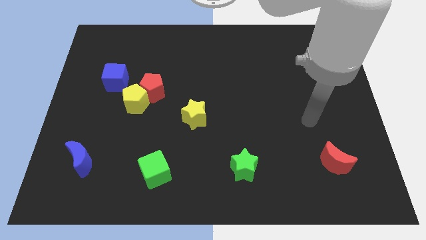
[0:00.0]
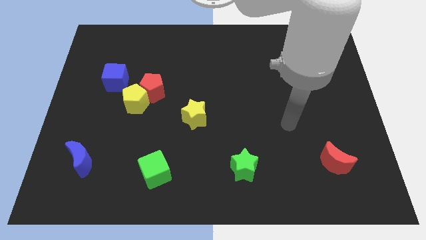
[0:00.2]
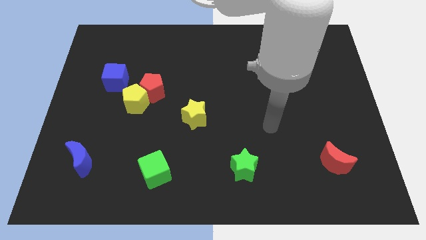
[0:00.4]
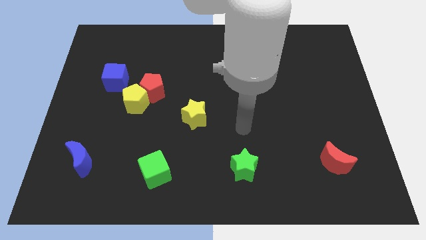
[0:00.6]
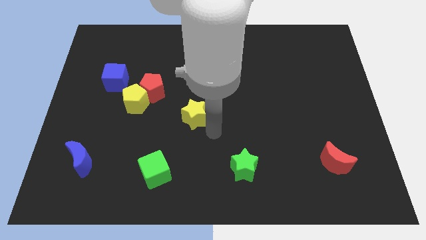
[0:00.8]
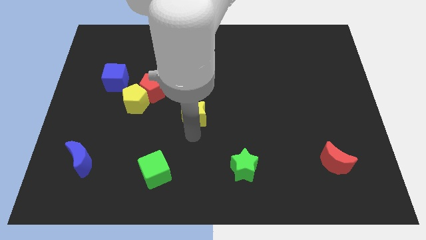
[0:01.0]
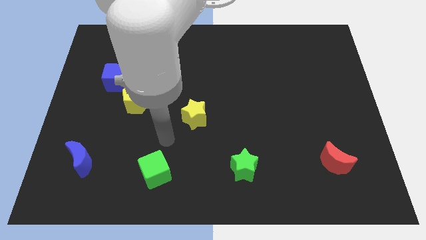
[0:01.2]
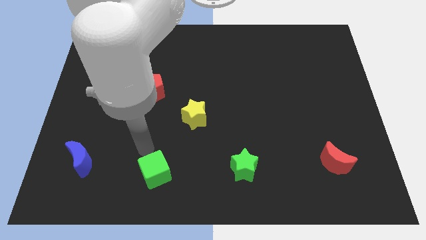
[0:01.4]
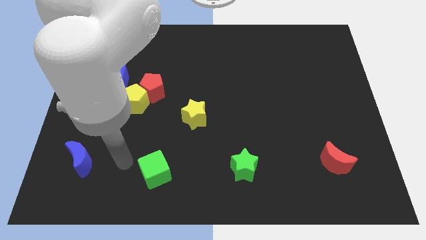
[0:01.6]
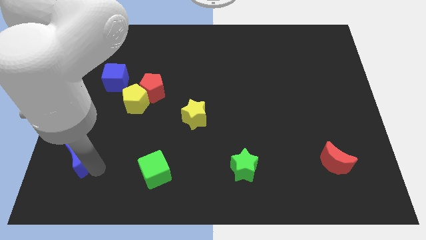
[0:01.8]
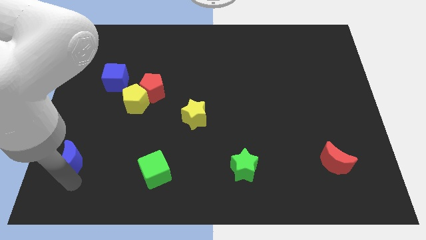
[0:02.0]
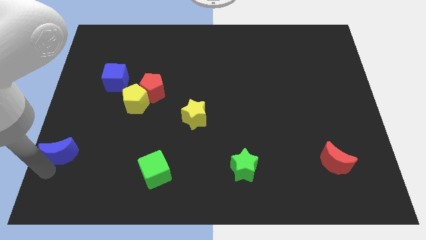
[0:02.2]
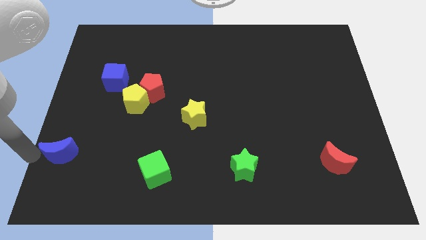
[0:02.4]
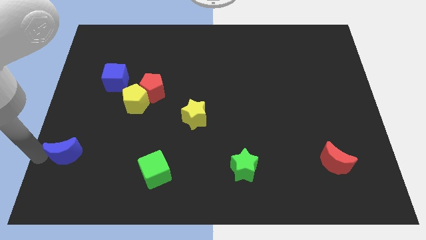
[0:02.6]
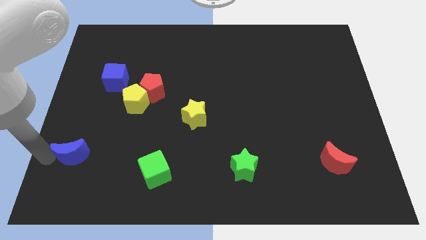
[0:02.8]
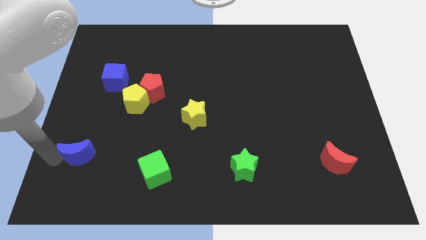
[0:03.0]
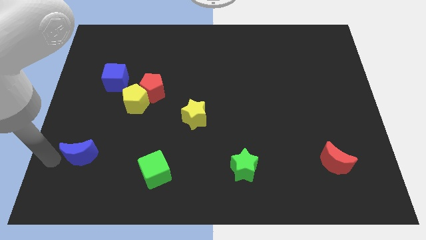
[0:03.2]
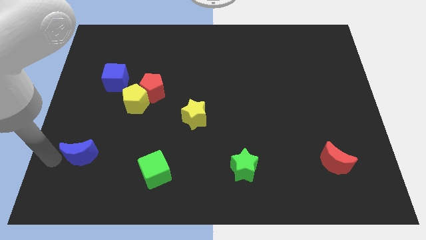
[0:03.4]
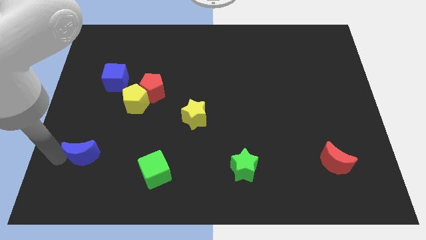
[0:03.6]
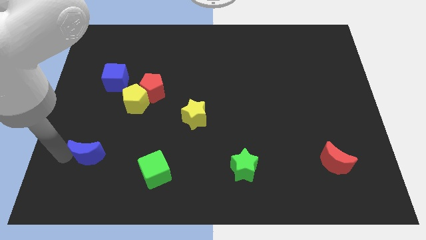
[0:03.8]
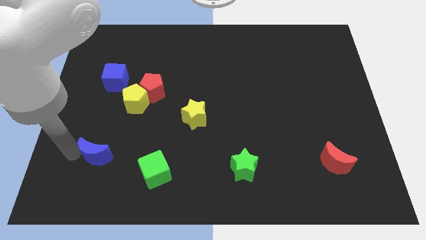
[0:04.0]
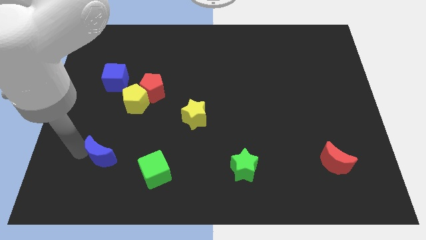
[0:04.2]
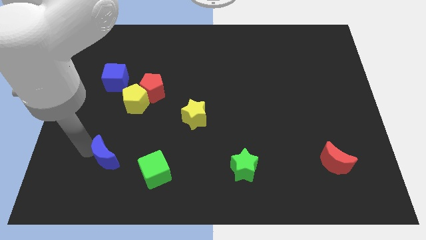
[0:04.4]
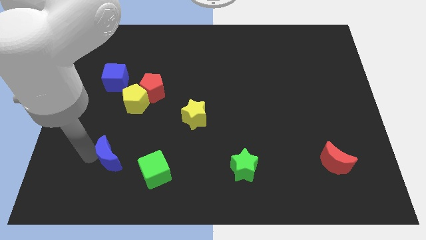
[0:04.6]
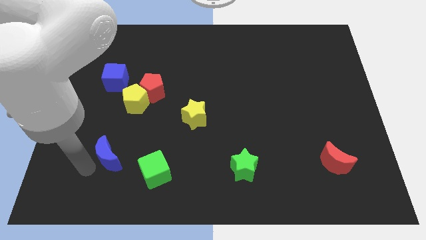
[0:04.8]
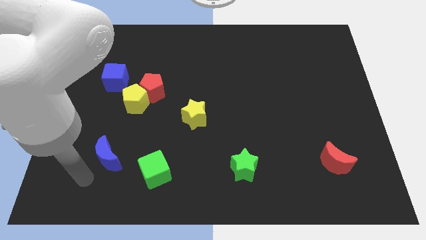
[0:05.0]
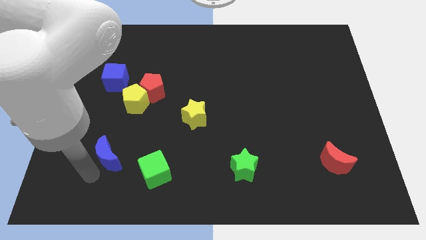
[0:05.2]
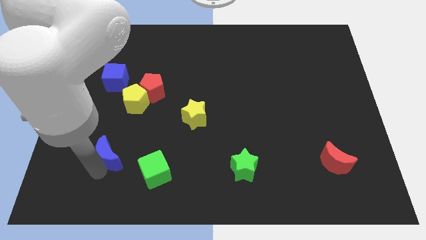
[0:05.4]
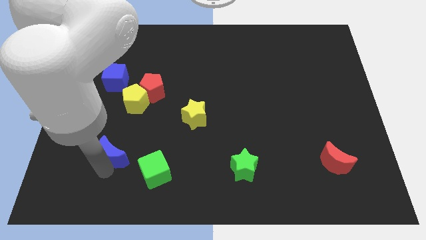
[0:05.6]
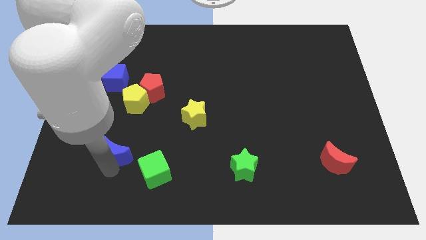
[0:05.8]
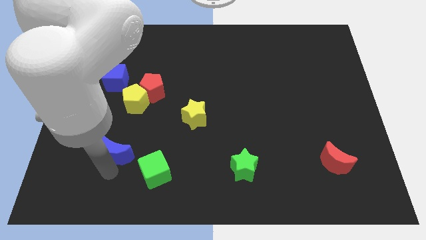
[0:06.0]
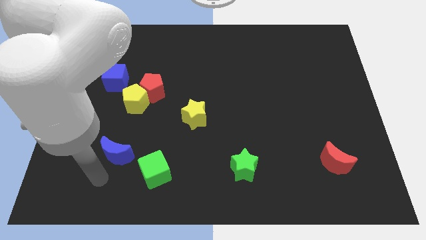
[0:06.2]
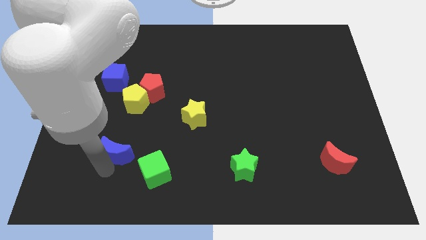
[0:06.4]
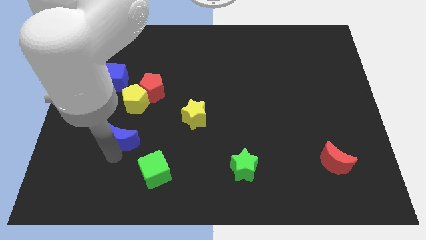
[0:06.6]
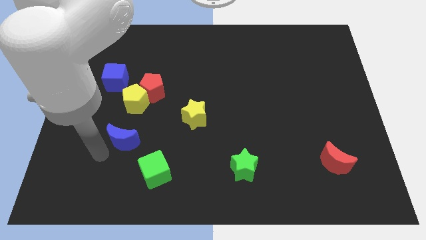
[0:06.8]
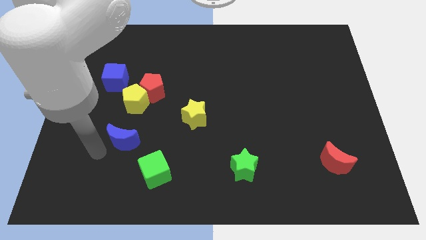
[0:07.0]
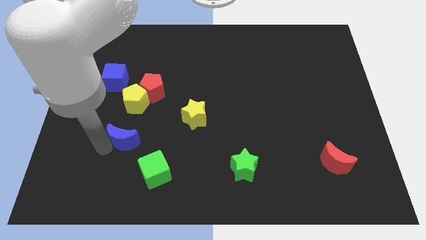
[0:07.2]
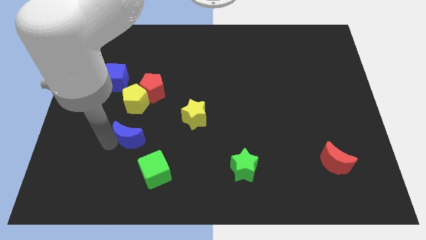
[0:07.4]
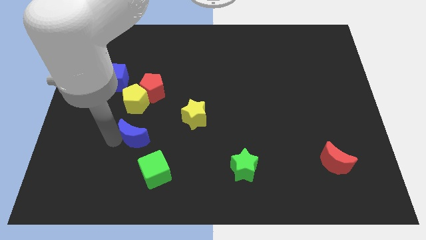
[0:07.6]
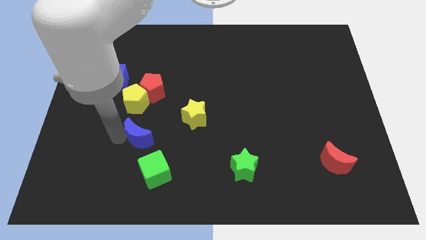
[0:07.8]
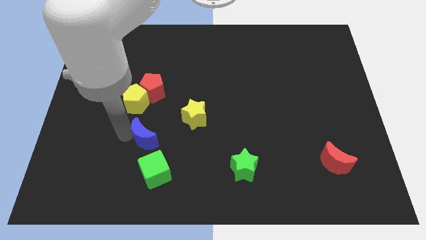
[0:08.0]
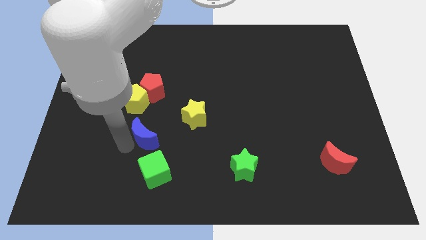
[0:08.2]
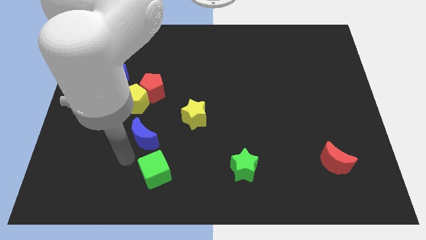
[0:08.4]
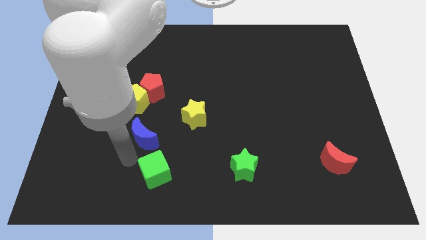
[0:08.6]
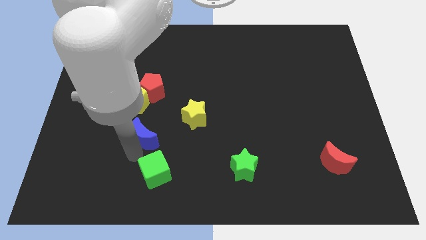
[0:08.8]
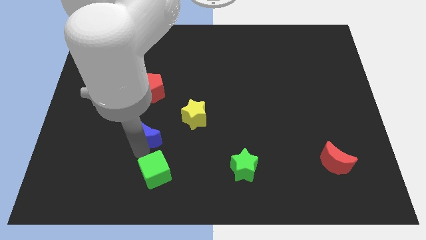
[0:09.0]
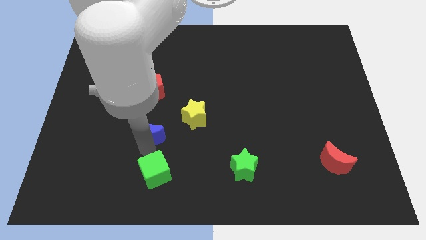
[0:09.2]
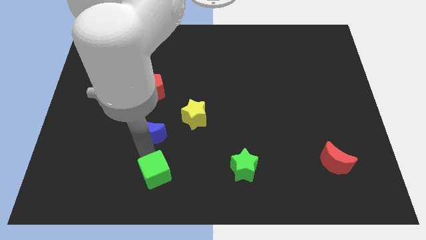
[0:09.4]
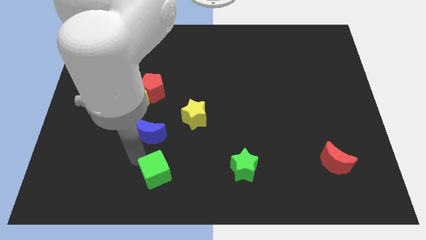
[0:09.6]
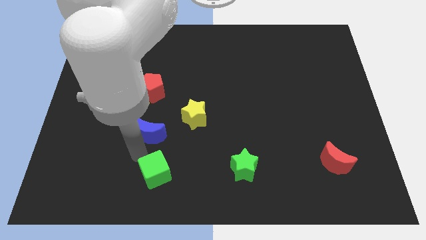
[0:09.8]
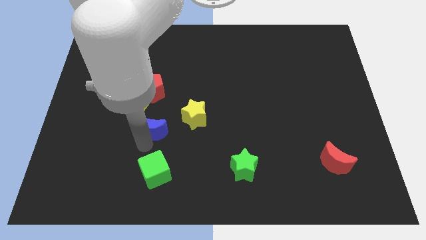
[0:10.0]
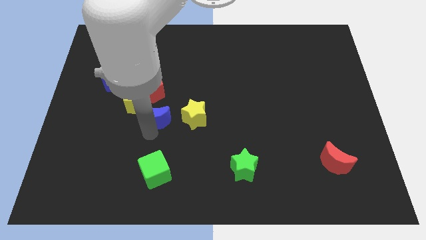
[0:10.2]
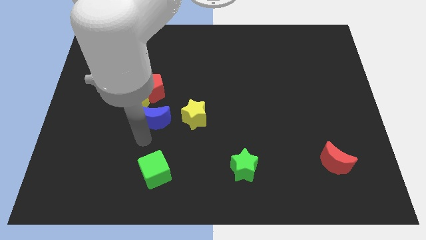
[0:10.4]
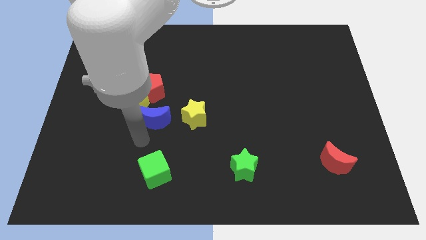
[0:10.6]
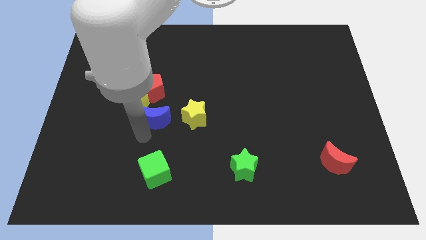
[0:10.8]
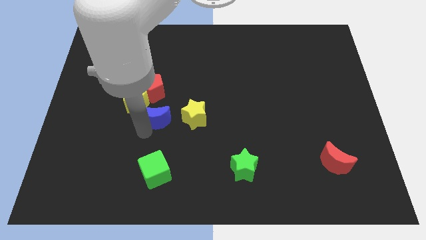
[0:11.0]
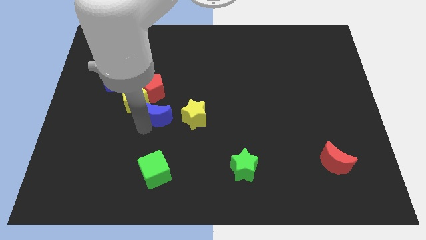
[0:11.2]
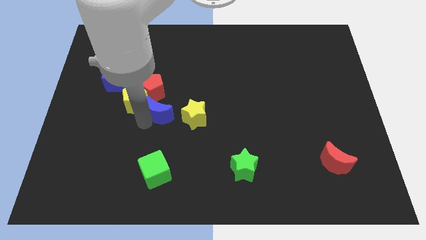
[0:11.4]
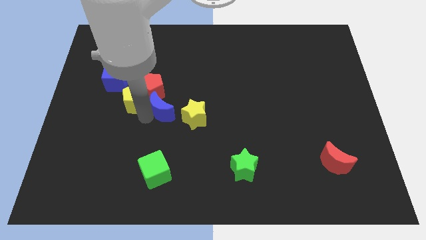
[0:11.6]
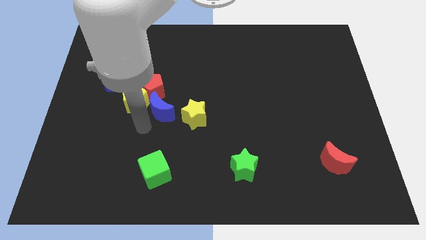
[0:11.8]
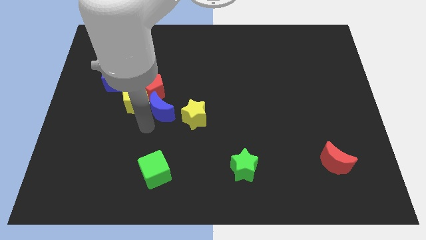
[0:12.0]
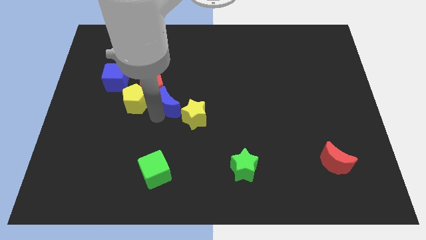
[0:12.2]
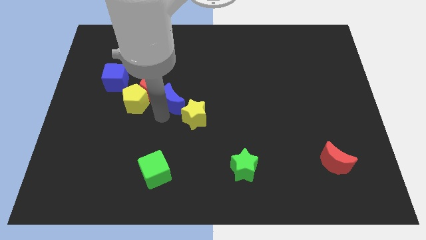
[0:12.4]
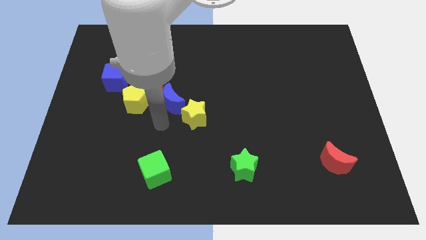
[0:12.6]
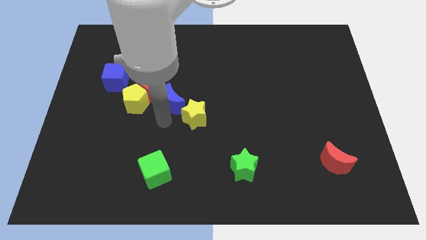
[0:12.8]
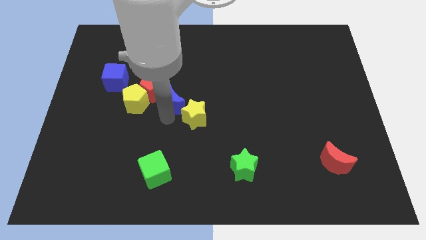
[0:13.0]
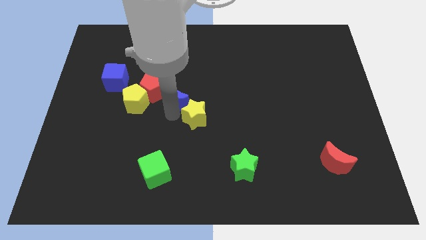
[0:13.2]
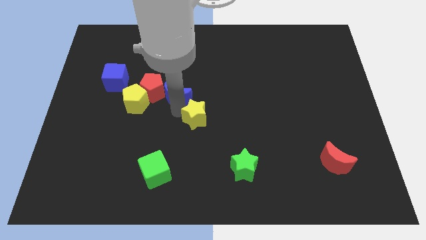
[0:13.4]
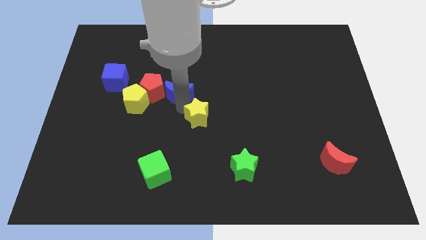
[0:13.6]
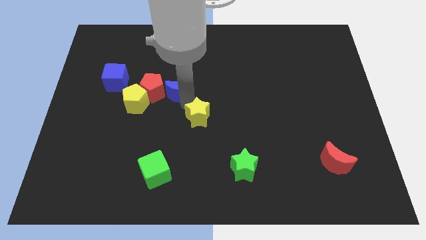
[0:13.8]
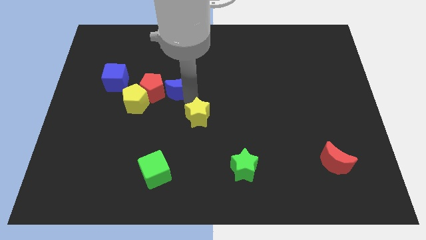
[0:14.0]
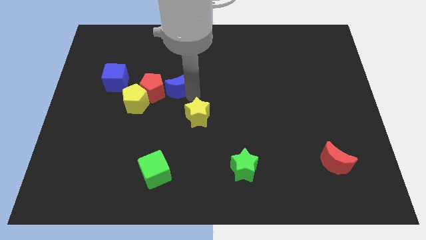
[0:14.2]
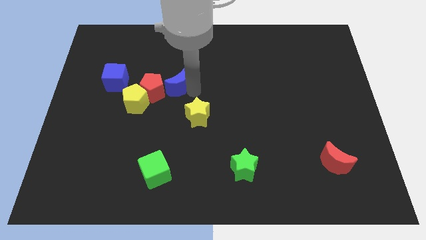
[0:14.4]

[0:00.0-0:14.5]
put the blue moon to the right side of the blue cube
